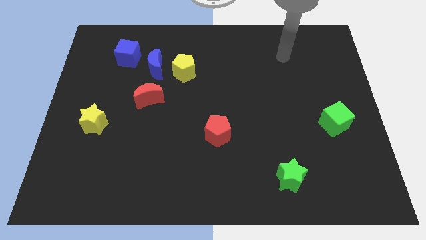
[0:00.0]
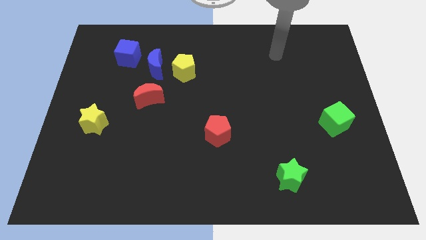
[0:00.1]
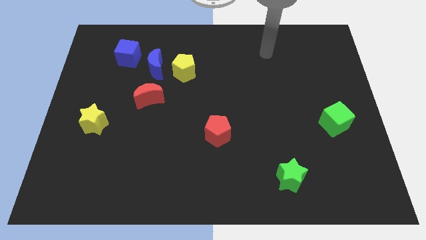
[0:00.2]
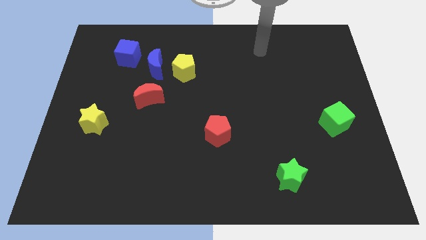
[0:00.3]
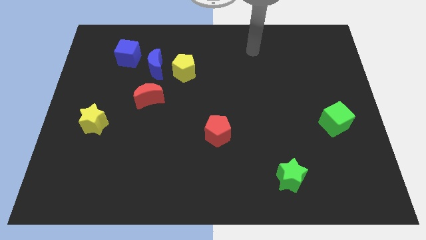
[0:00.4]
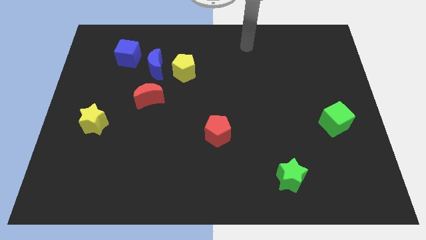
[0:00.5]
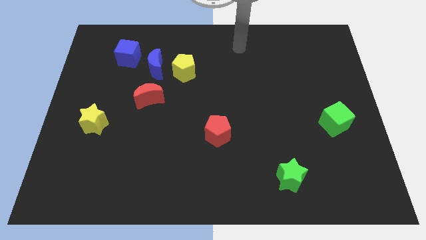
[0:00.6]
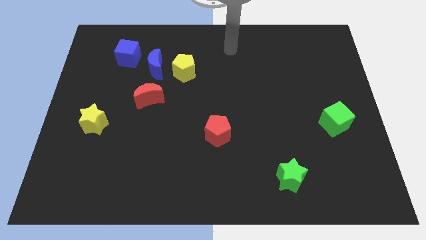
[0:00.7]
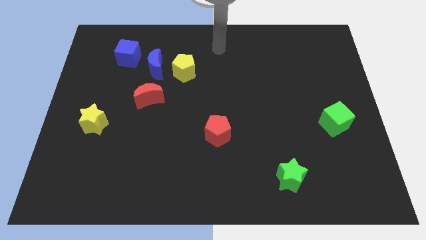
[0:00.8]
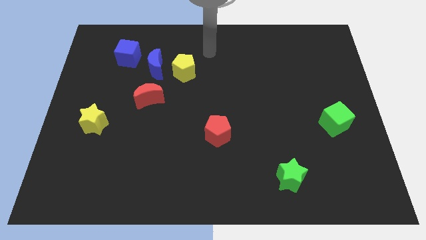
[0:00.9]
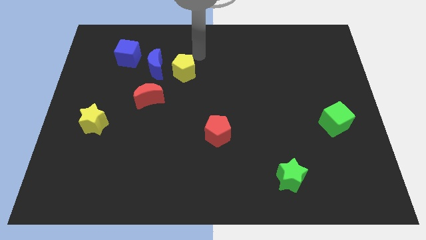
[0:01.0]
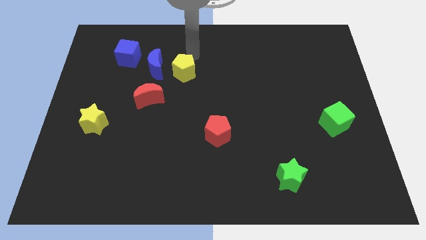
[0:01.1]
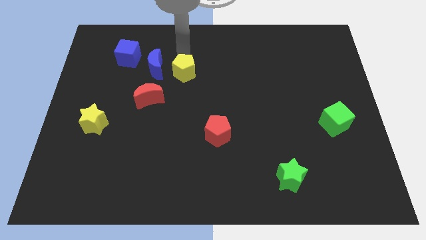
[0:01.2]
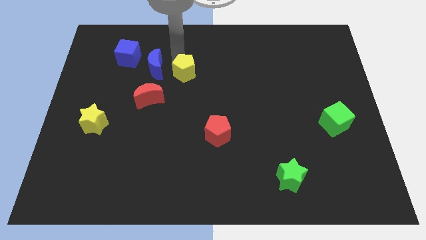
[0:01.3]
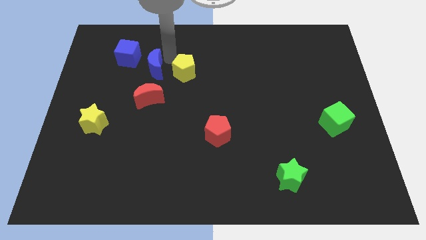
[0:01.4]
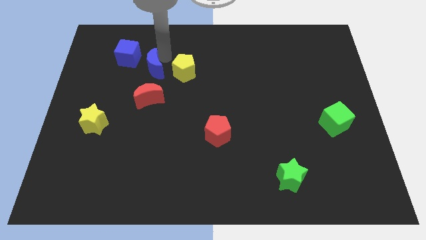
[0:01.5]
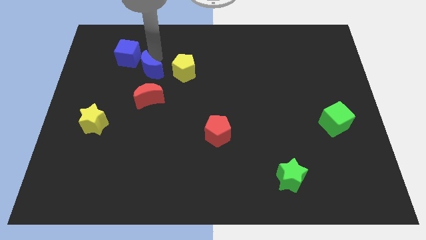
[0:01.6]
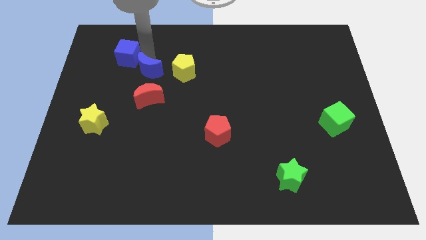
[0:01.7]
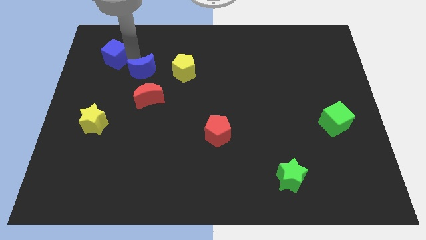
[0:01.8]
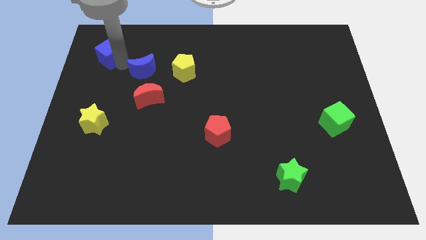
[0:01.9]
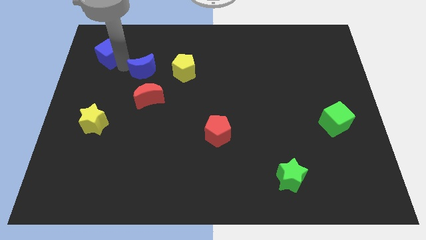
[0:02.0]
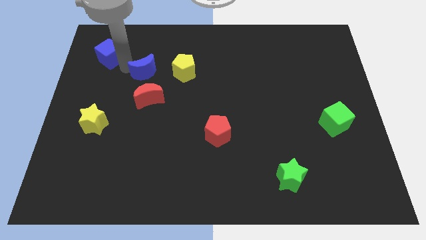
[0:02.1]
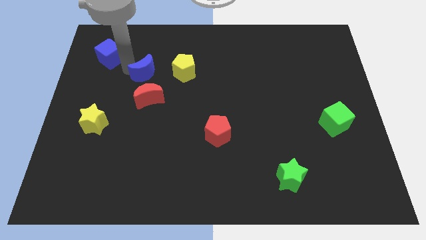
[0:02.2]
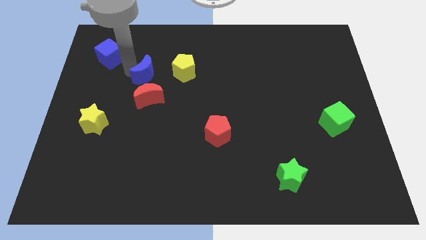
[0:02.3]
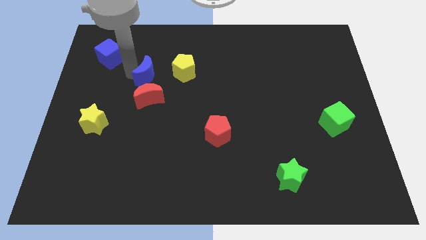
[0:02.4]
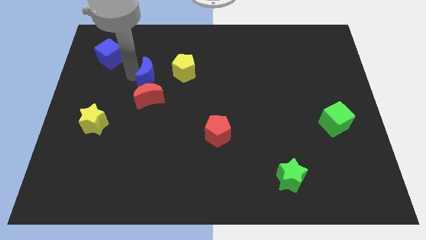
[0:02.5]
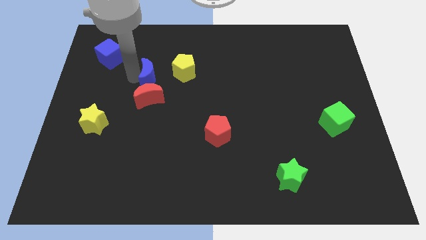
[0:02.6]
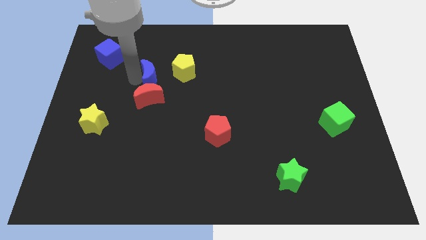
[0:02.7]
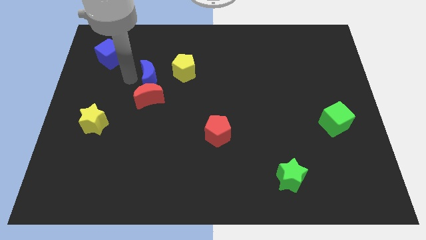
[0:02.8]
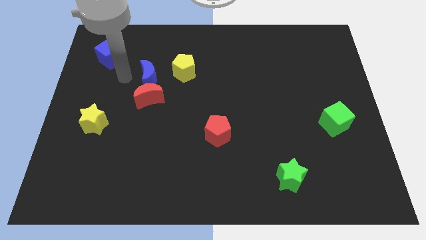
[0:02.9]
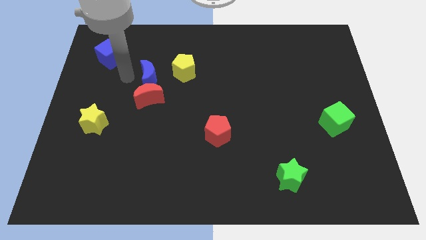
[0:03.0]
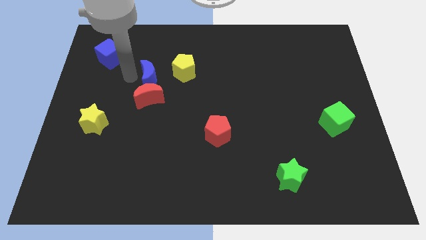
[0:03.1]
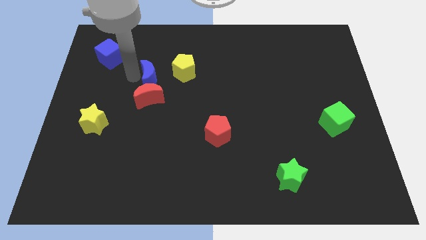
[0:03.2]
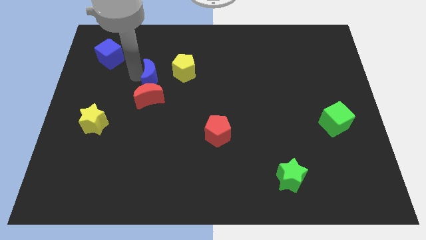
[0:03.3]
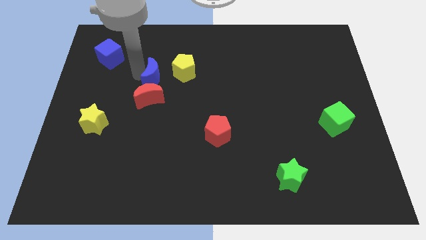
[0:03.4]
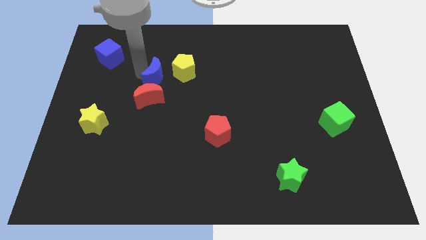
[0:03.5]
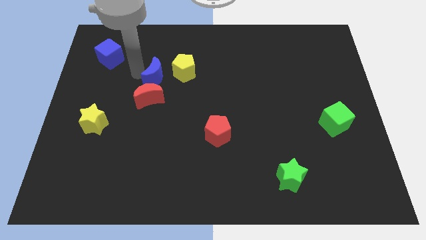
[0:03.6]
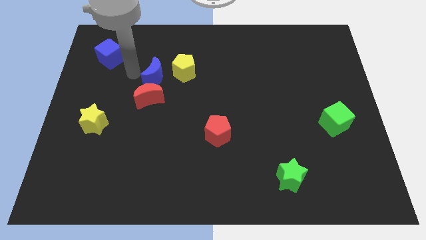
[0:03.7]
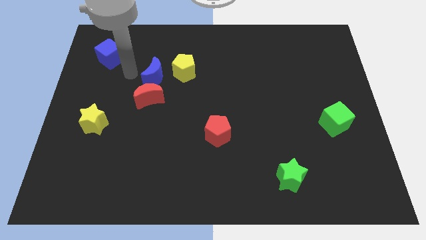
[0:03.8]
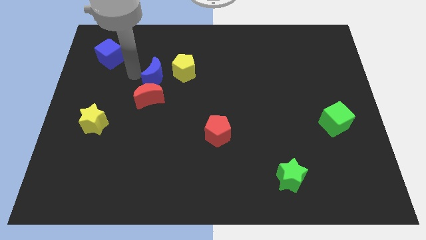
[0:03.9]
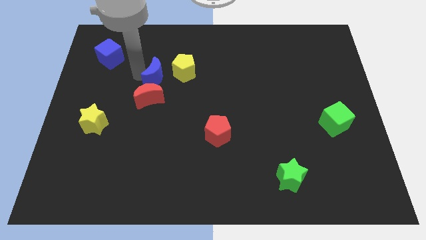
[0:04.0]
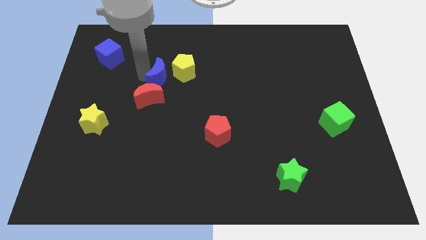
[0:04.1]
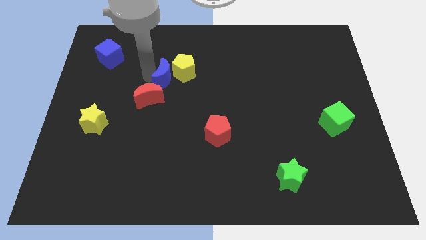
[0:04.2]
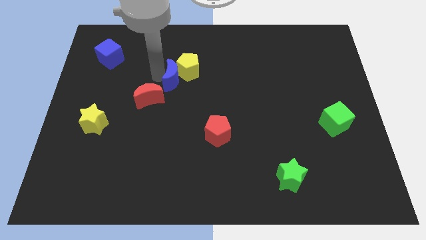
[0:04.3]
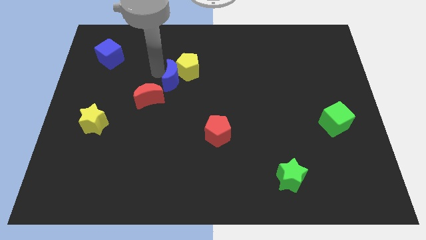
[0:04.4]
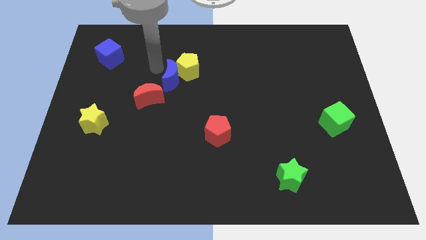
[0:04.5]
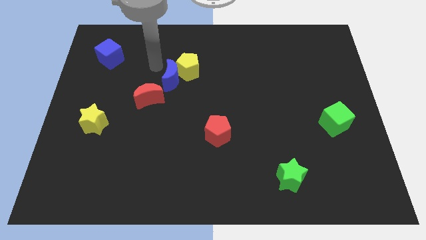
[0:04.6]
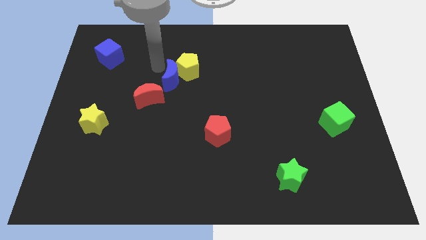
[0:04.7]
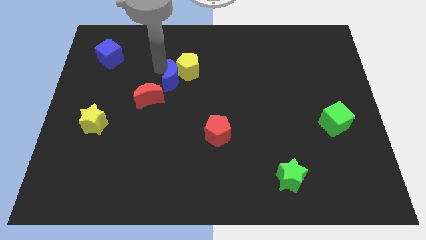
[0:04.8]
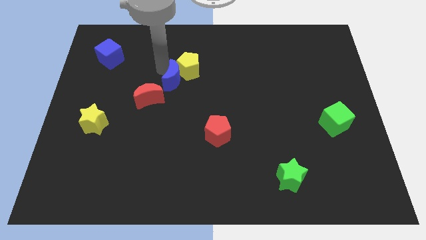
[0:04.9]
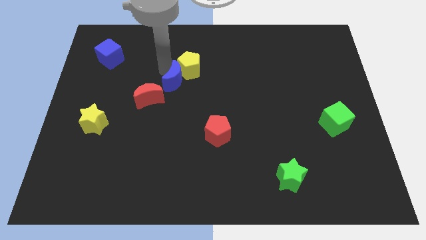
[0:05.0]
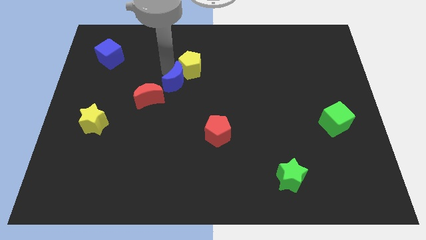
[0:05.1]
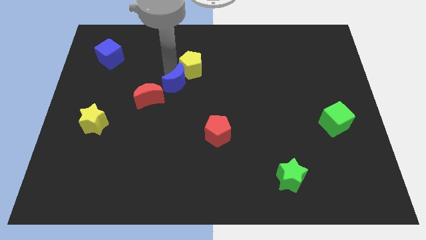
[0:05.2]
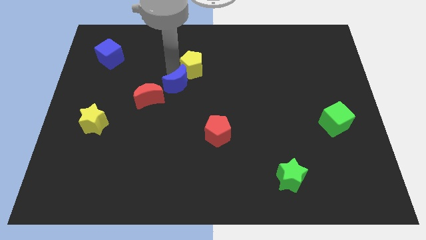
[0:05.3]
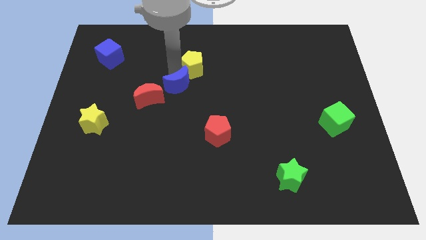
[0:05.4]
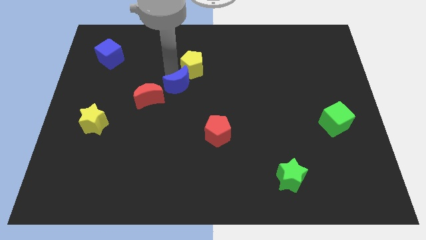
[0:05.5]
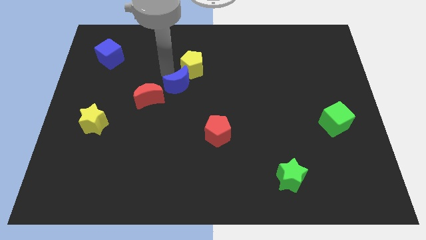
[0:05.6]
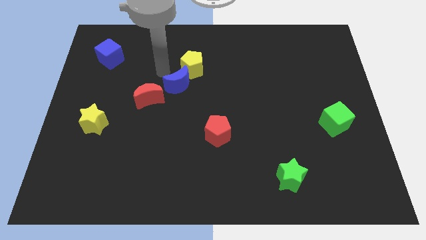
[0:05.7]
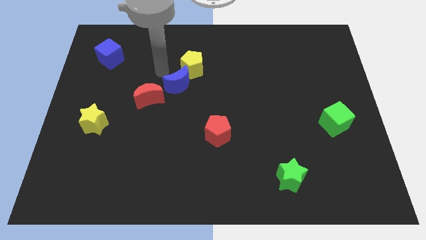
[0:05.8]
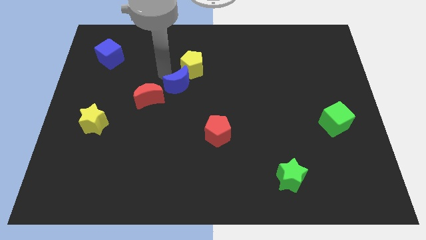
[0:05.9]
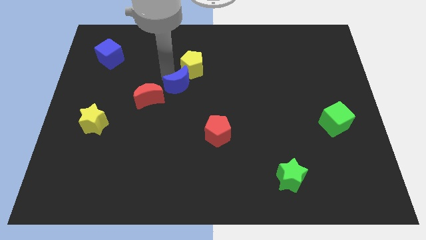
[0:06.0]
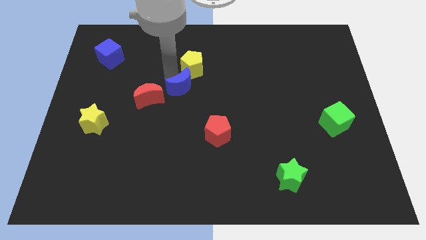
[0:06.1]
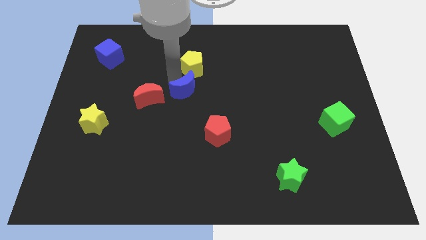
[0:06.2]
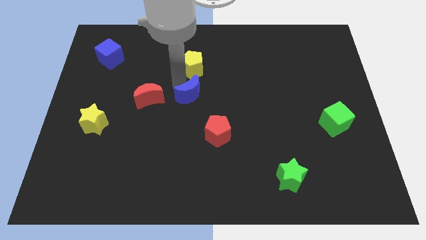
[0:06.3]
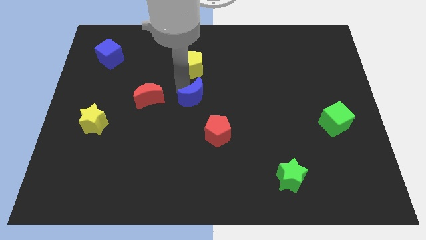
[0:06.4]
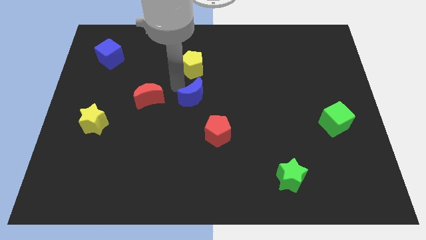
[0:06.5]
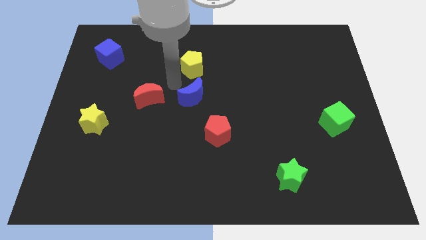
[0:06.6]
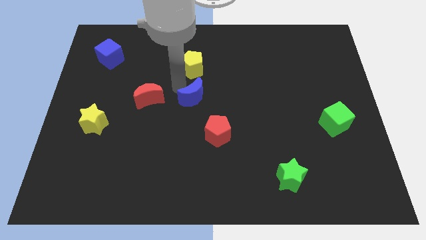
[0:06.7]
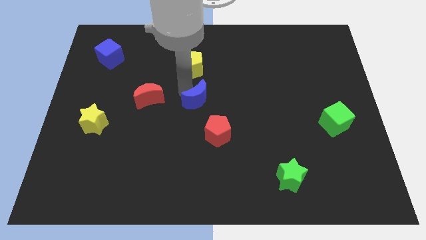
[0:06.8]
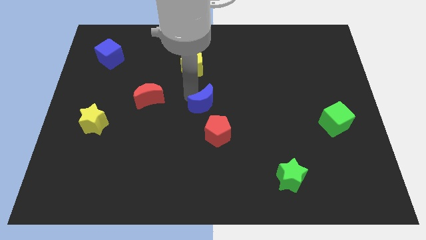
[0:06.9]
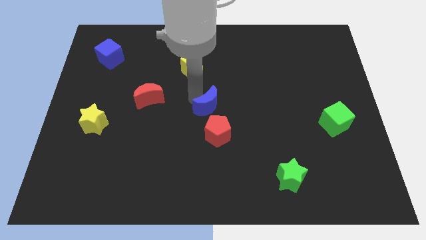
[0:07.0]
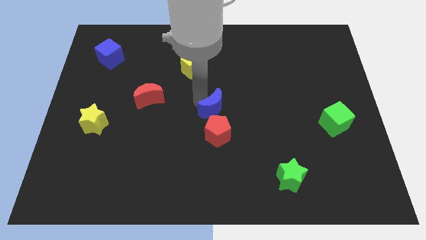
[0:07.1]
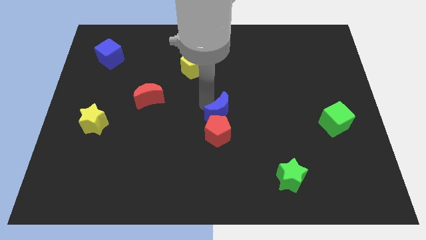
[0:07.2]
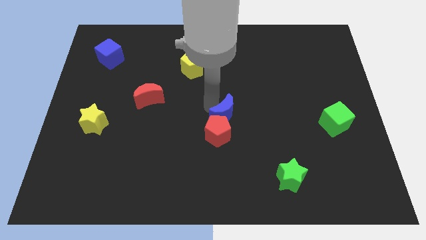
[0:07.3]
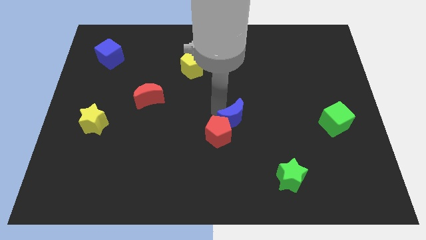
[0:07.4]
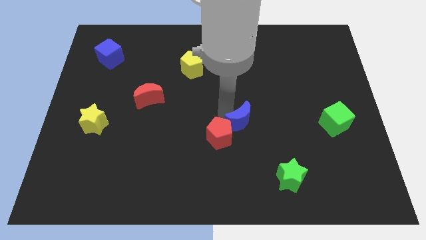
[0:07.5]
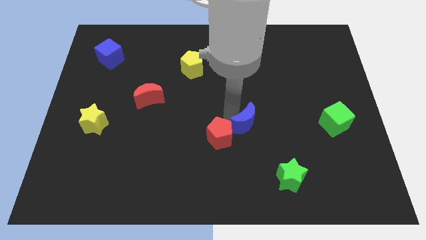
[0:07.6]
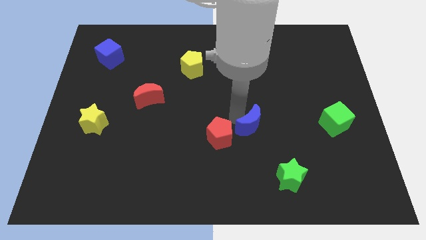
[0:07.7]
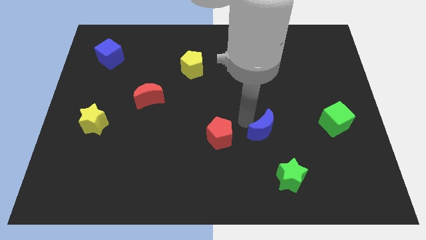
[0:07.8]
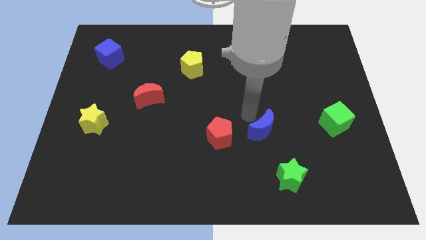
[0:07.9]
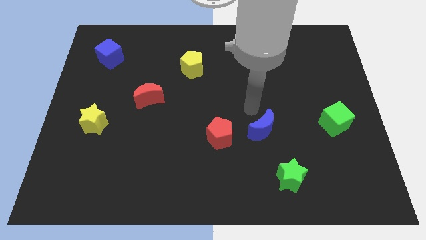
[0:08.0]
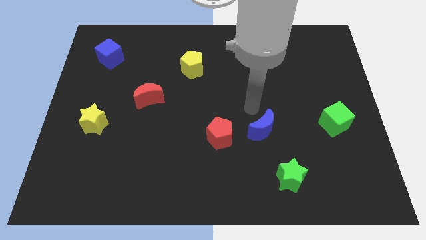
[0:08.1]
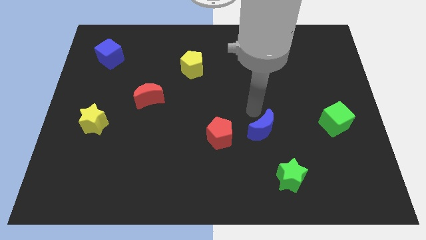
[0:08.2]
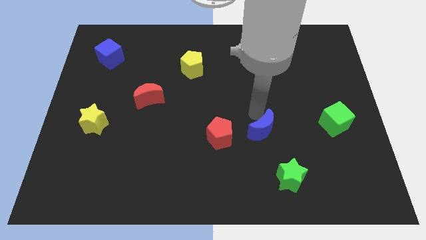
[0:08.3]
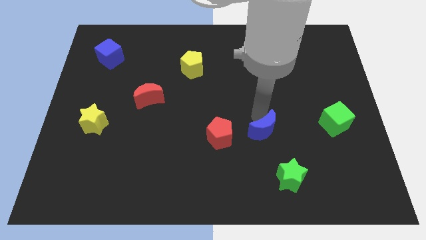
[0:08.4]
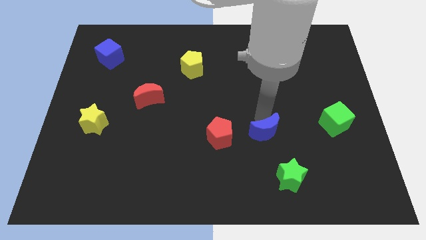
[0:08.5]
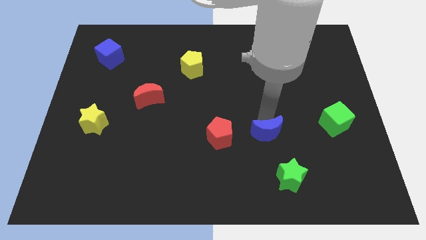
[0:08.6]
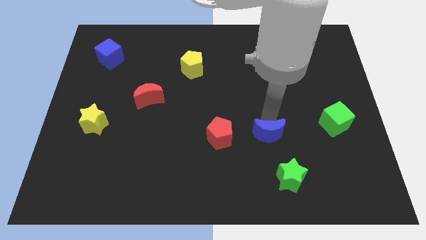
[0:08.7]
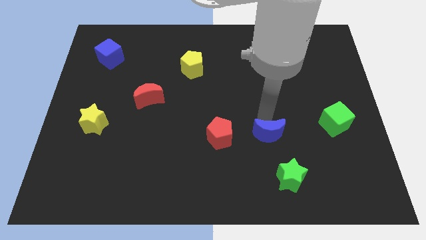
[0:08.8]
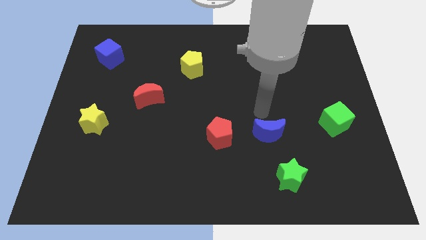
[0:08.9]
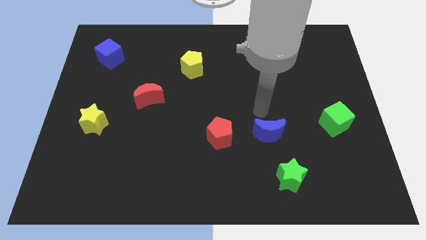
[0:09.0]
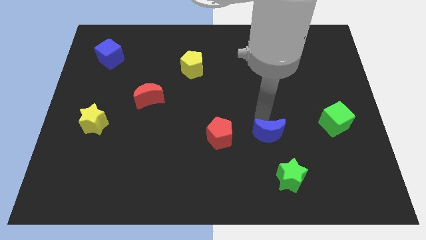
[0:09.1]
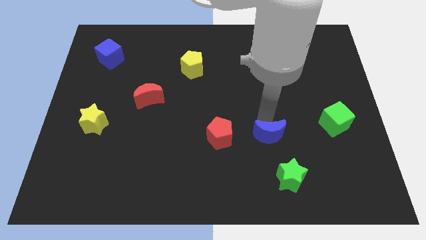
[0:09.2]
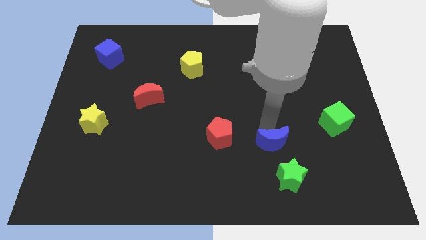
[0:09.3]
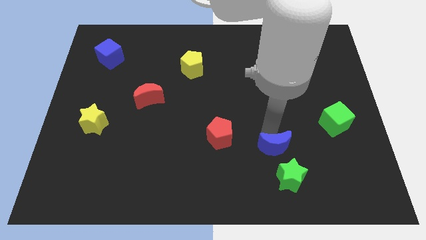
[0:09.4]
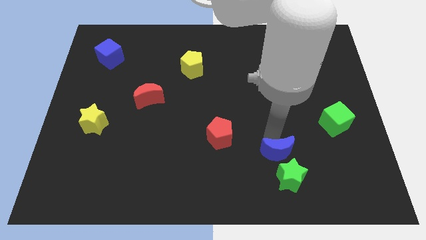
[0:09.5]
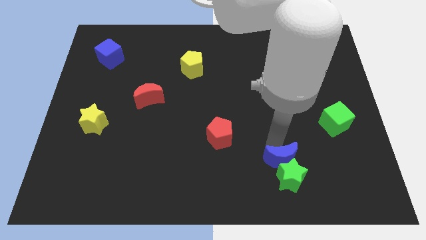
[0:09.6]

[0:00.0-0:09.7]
put the blue moon next to the green star
